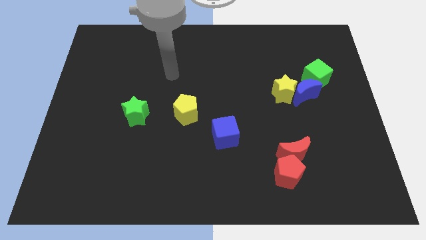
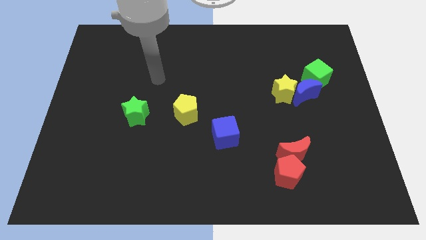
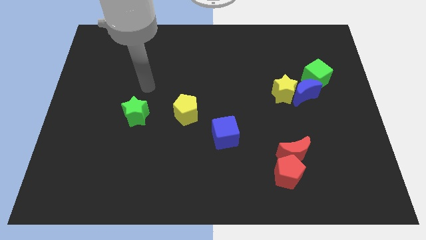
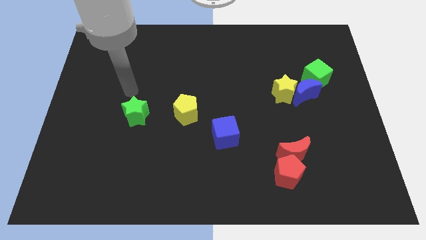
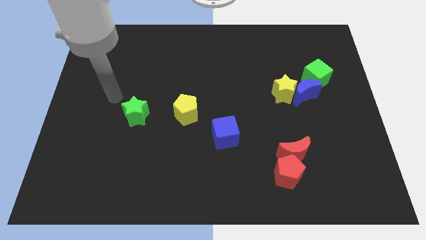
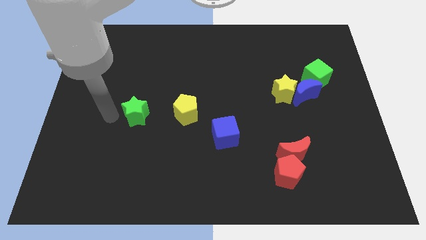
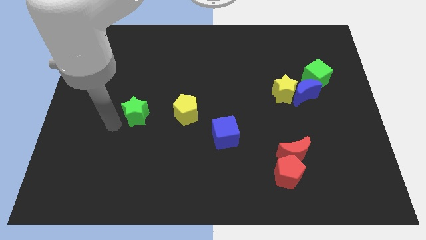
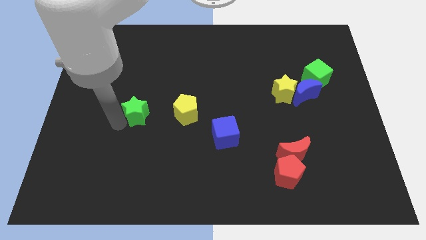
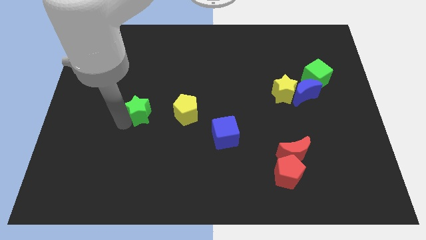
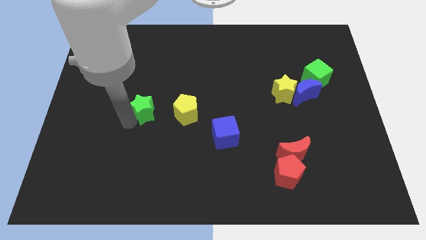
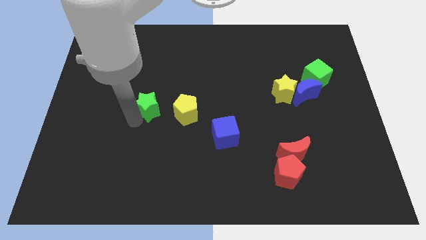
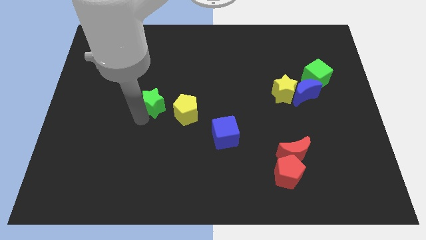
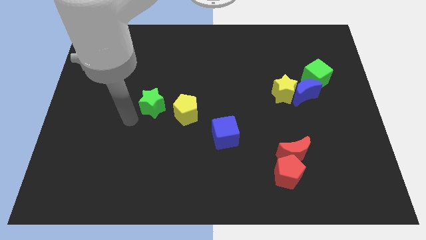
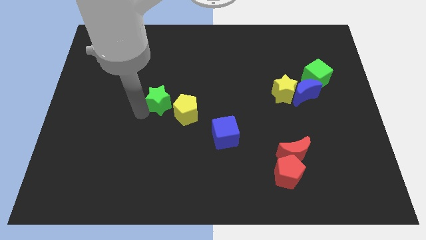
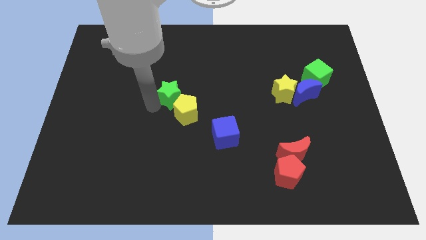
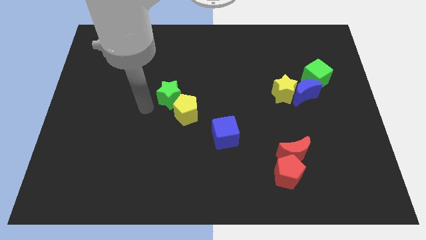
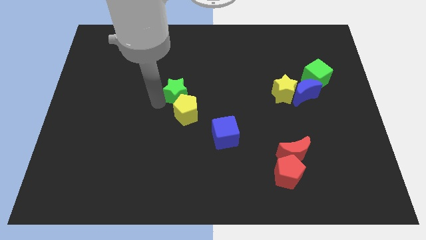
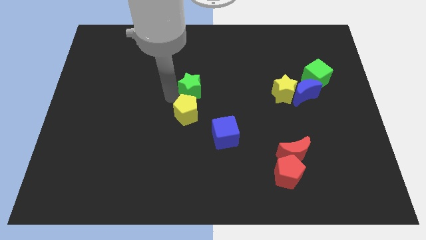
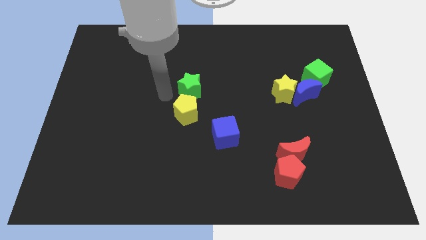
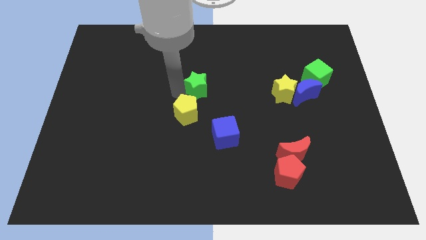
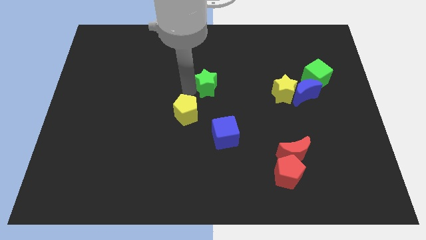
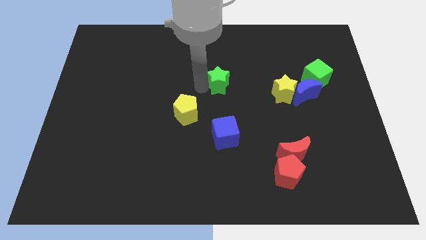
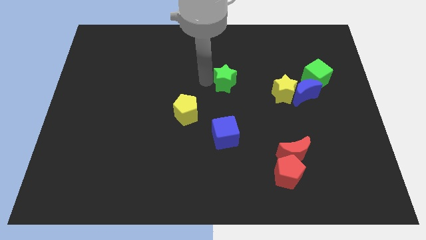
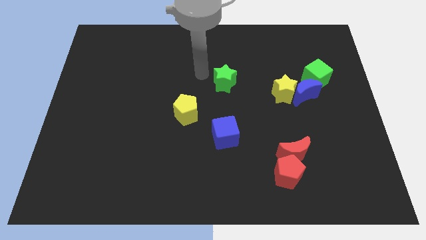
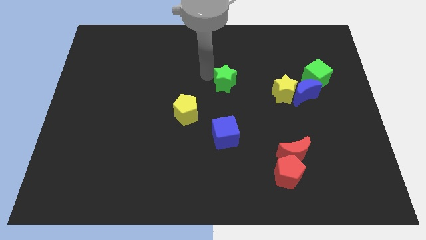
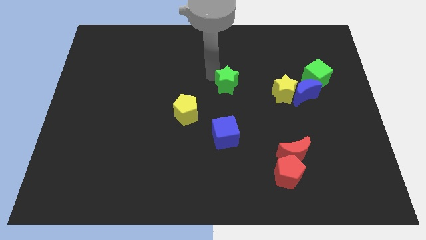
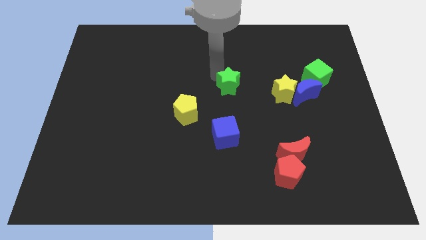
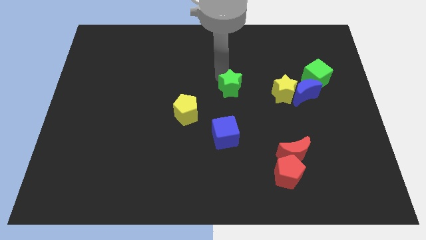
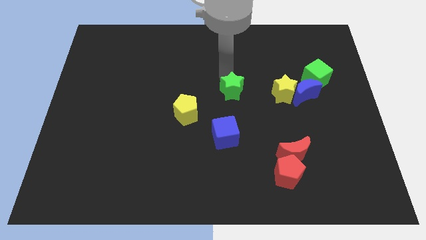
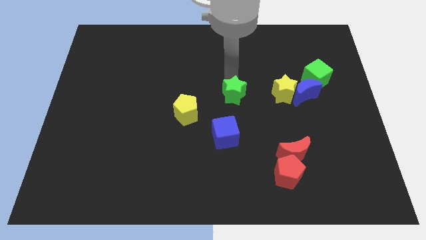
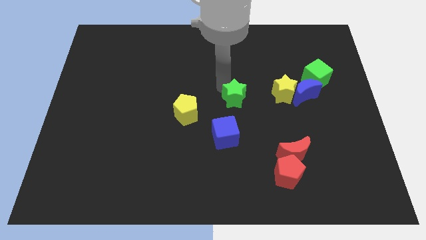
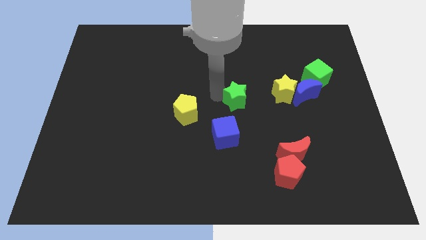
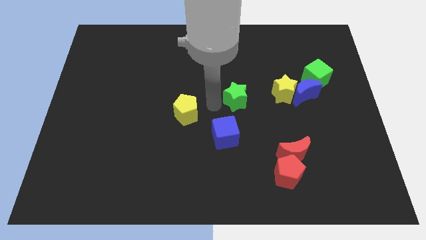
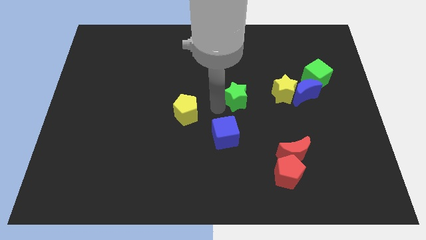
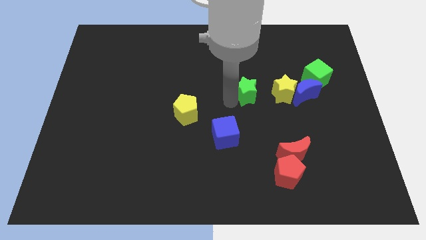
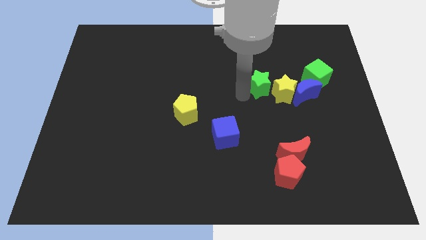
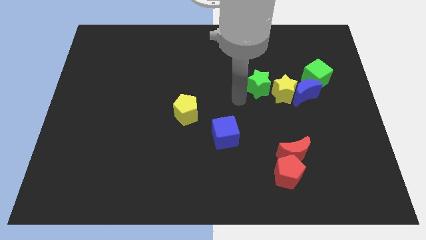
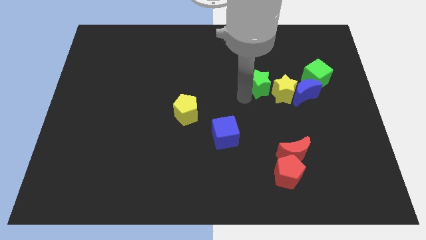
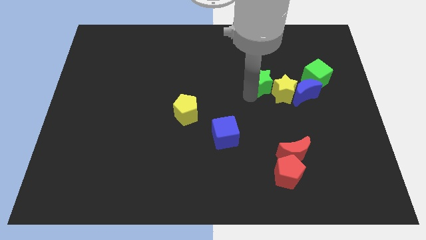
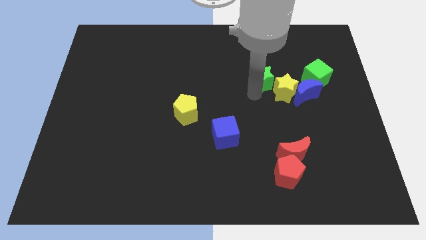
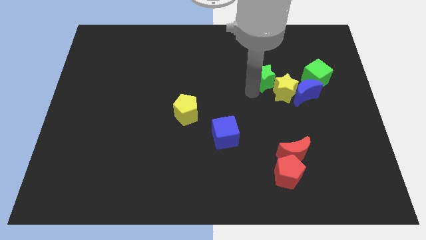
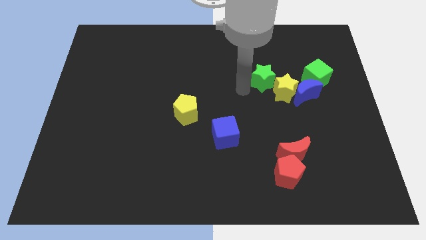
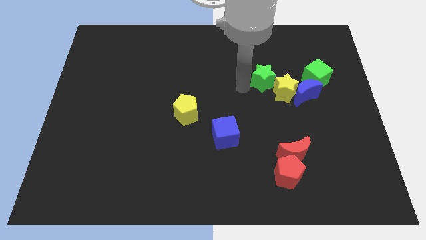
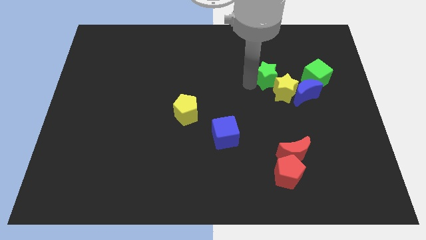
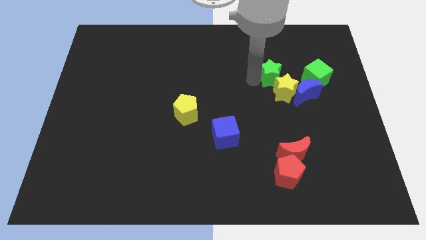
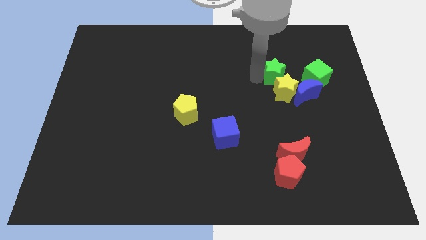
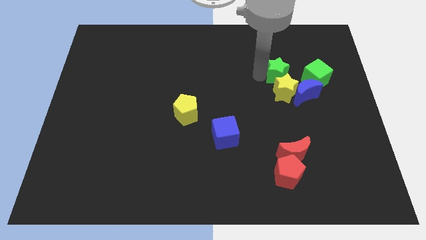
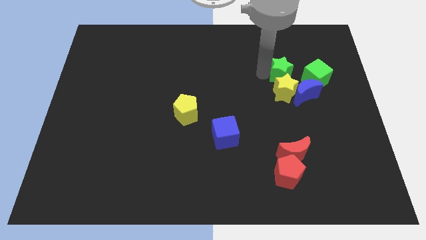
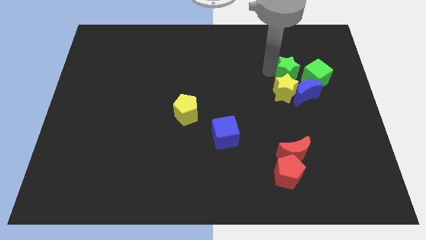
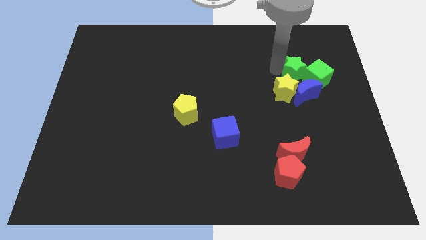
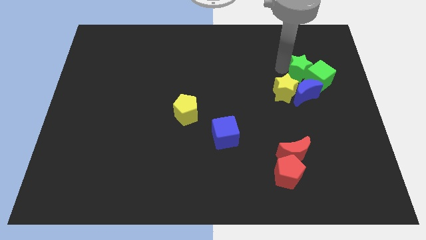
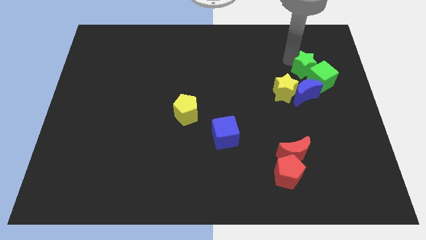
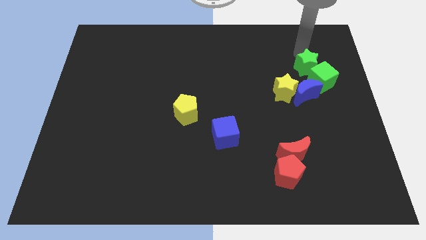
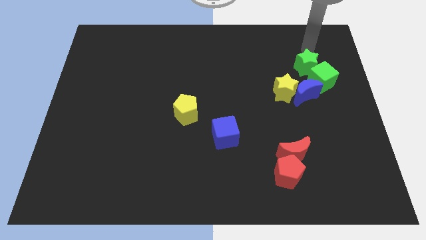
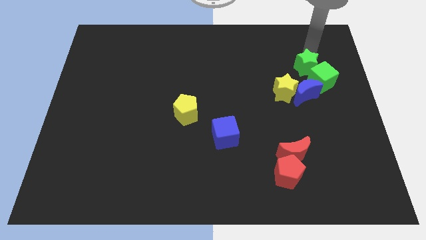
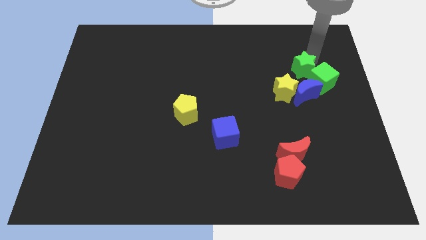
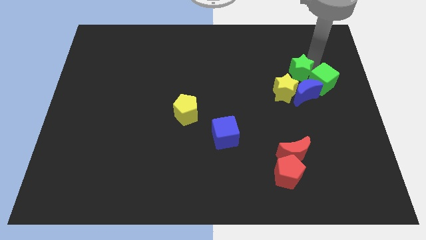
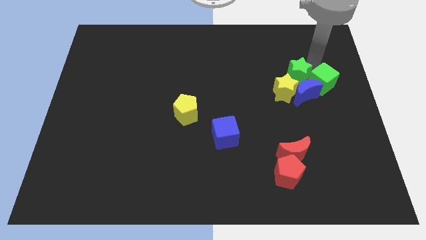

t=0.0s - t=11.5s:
move the green star next to the blue moon

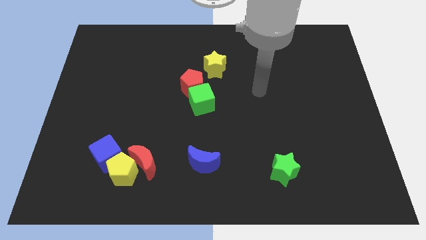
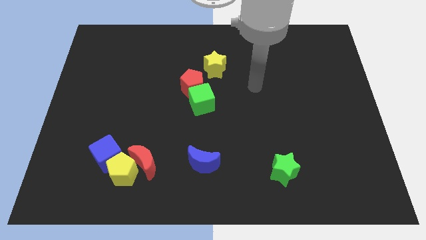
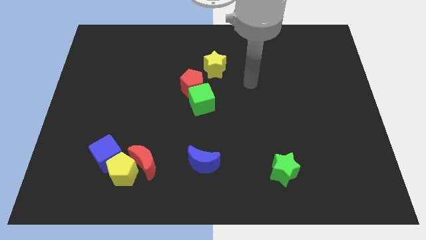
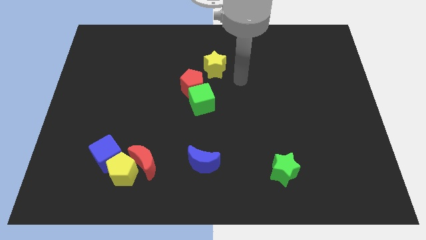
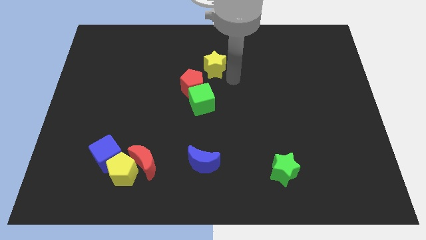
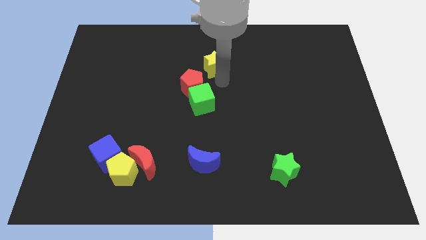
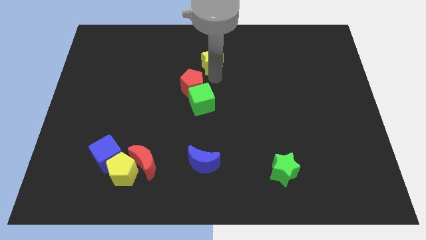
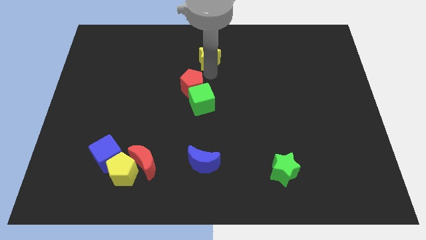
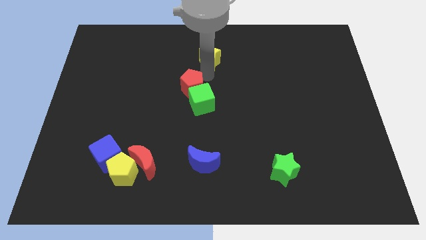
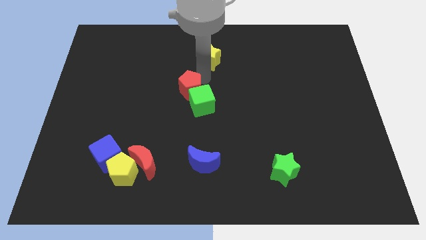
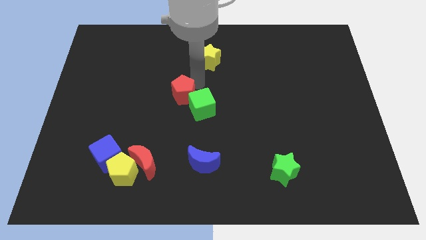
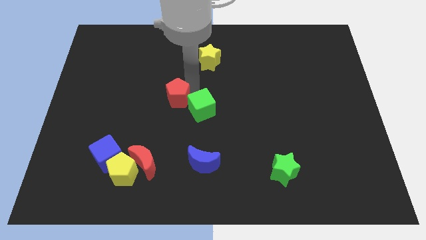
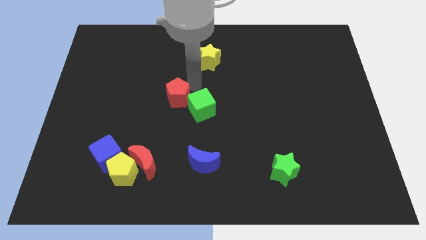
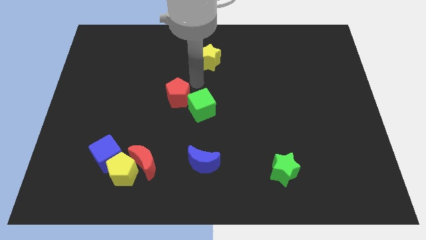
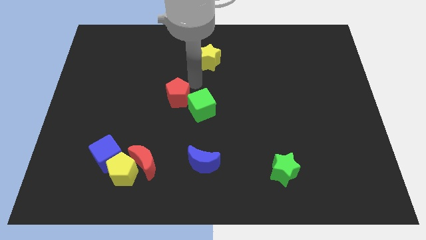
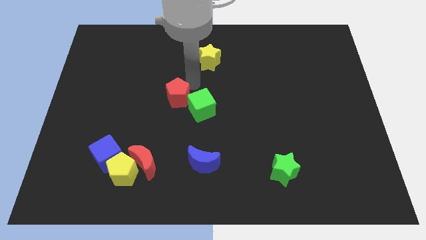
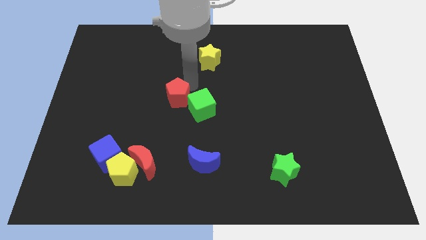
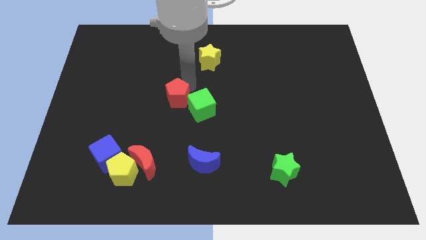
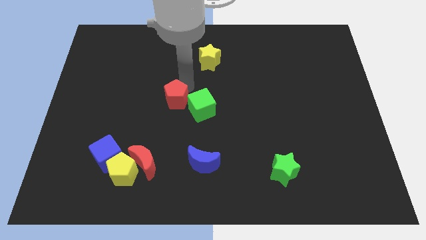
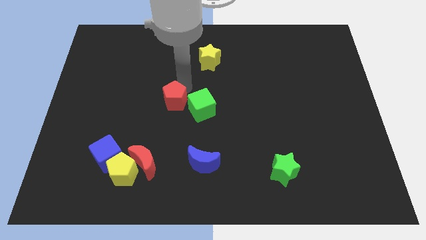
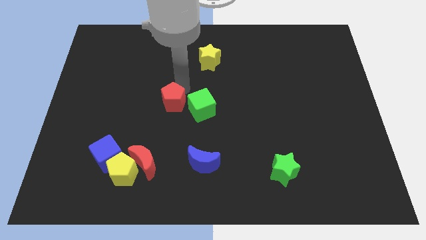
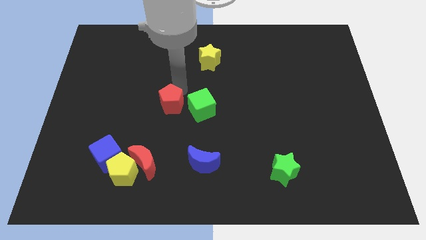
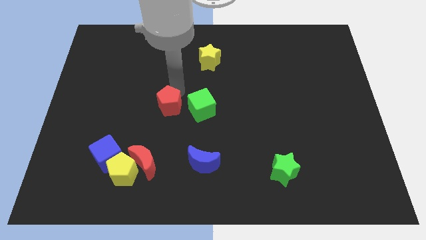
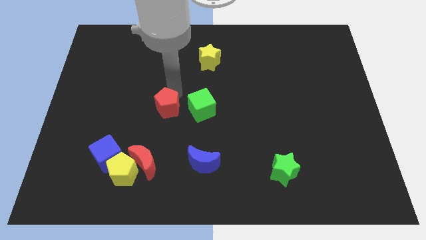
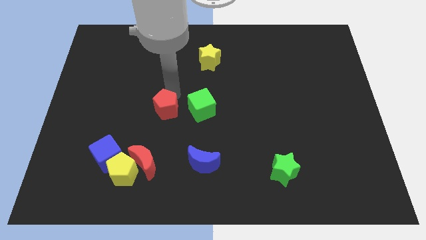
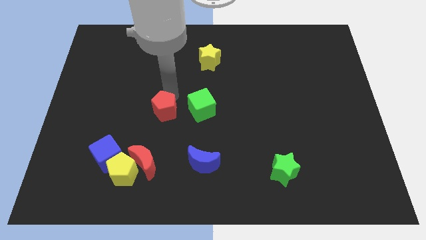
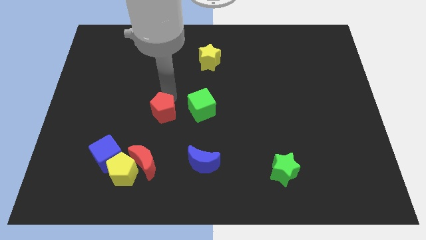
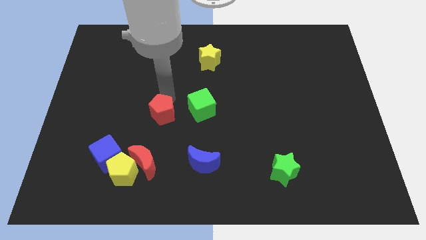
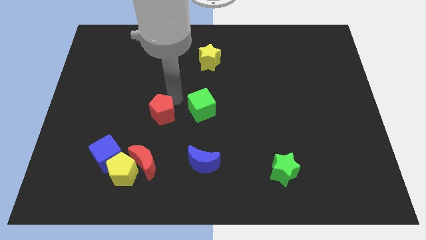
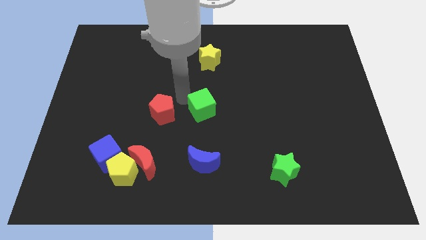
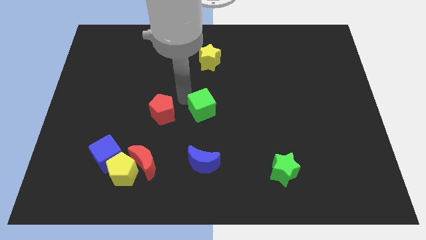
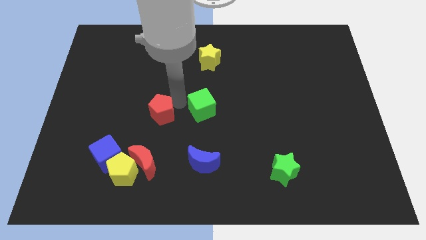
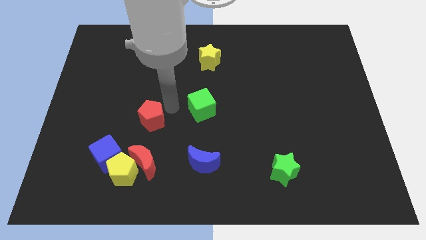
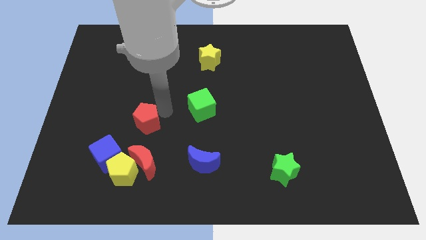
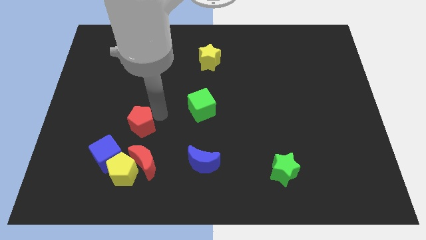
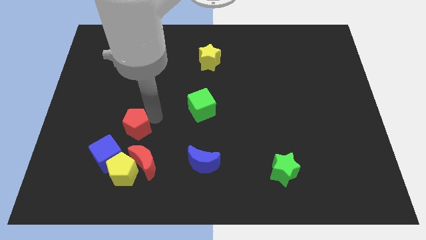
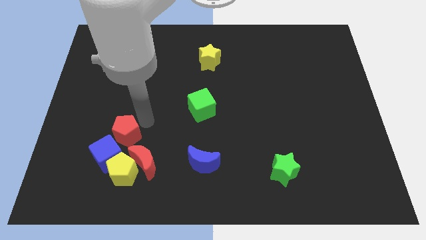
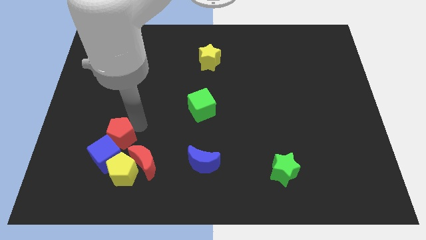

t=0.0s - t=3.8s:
slide the red pentagon close to the blue cube
